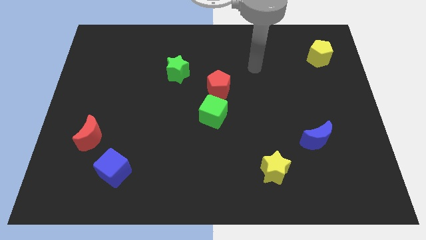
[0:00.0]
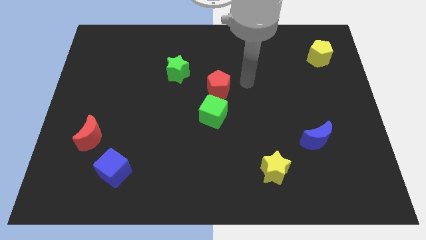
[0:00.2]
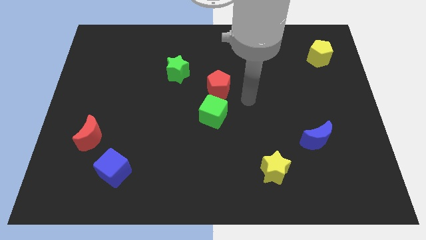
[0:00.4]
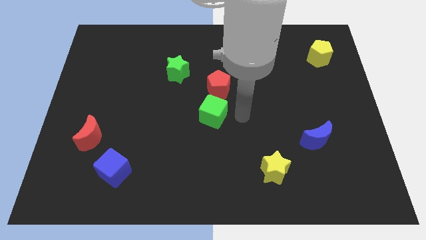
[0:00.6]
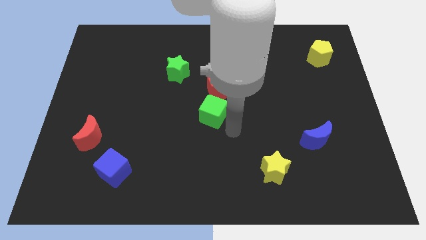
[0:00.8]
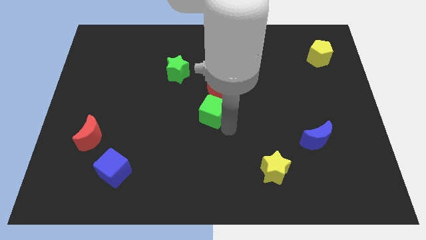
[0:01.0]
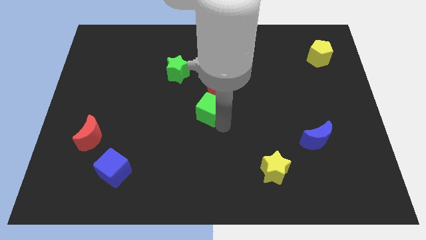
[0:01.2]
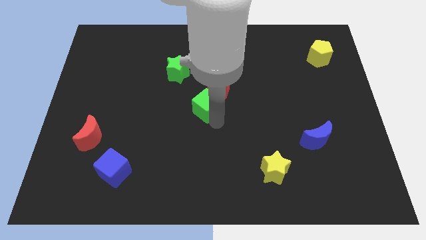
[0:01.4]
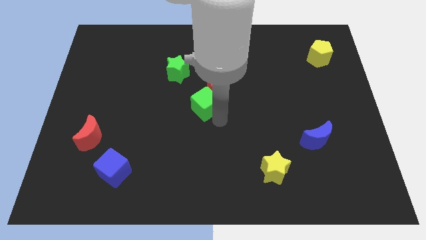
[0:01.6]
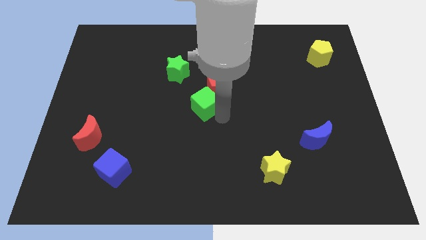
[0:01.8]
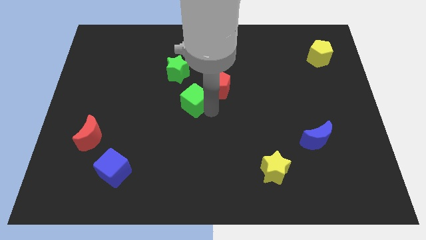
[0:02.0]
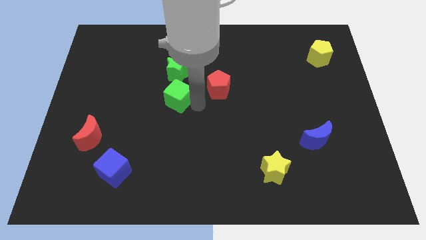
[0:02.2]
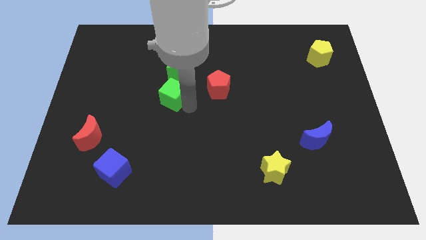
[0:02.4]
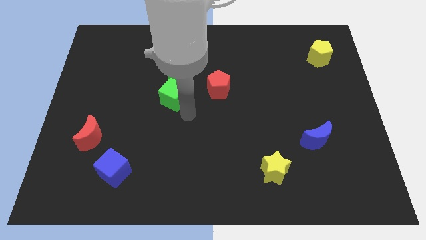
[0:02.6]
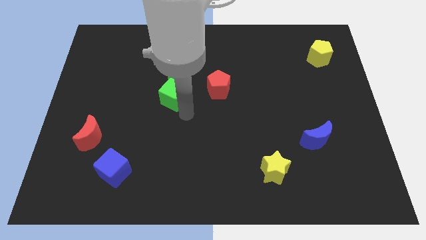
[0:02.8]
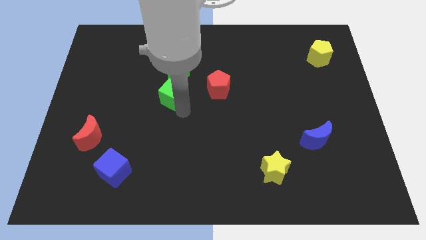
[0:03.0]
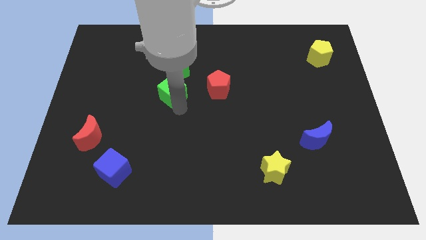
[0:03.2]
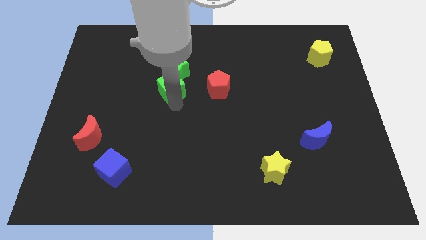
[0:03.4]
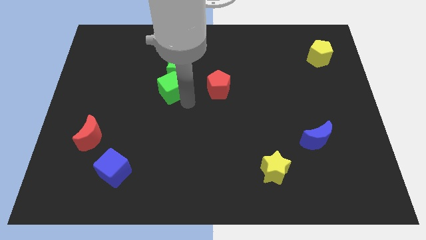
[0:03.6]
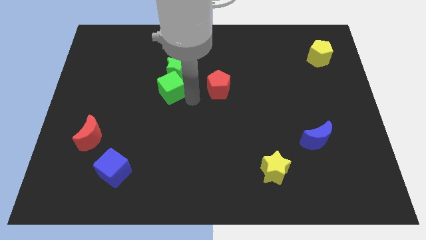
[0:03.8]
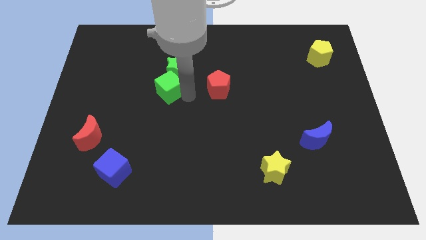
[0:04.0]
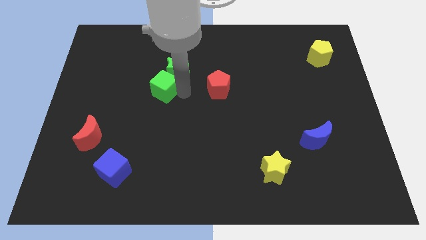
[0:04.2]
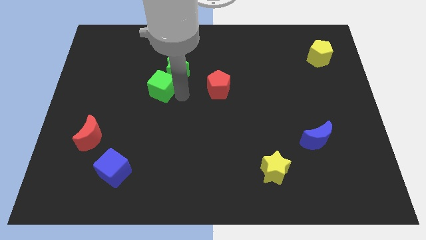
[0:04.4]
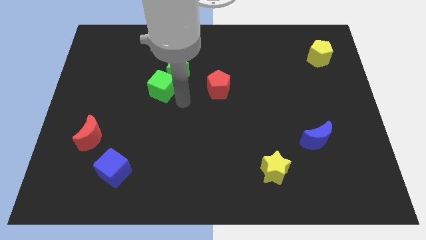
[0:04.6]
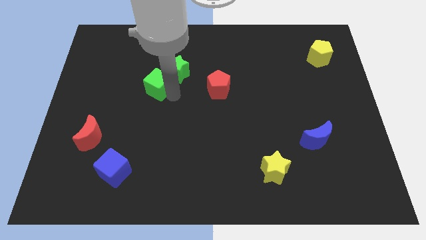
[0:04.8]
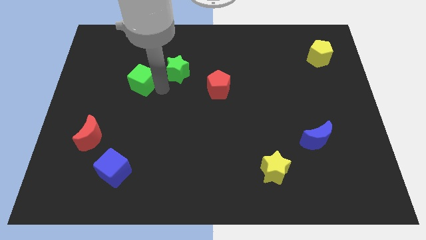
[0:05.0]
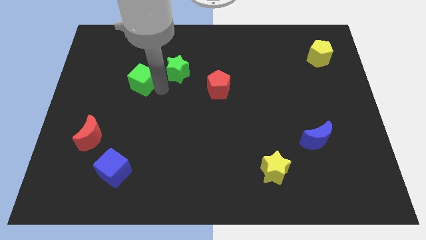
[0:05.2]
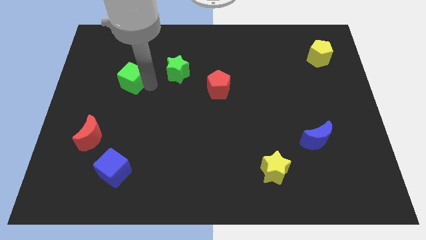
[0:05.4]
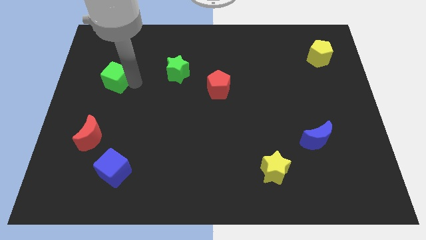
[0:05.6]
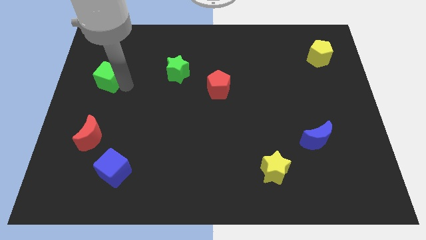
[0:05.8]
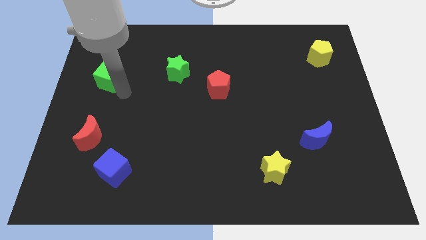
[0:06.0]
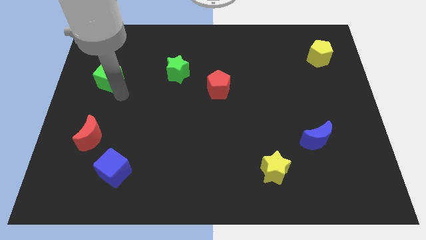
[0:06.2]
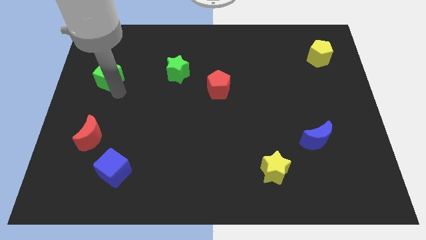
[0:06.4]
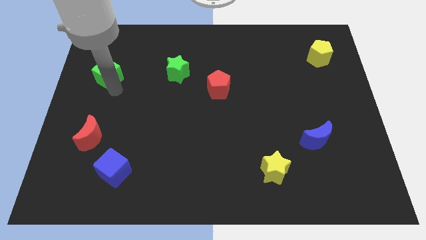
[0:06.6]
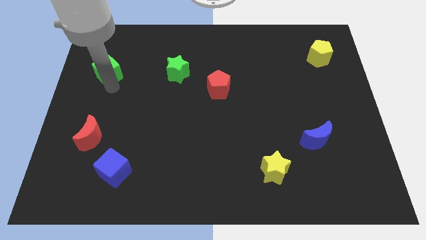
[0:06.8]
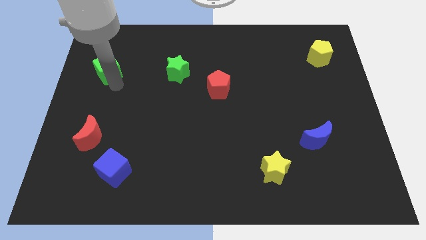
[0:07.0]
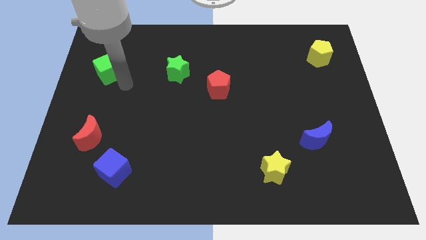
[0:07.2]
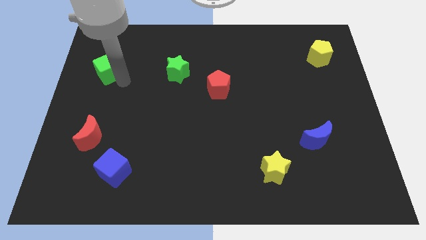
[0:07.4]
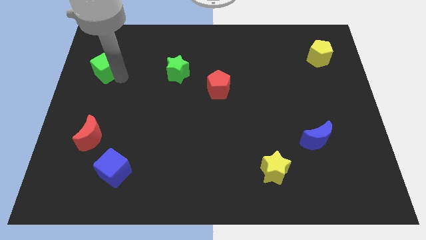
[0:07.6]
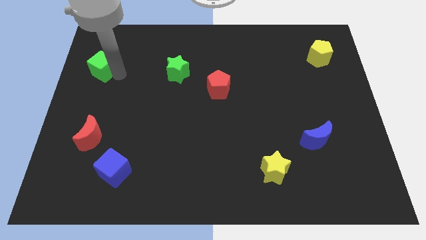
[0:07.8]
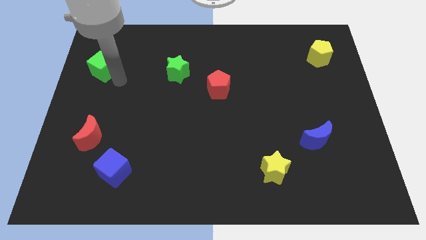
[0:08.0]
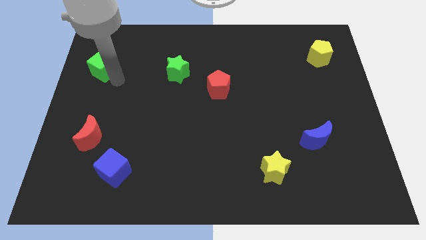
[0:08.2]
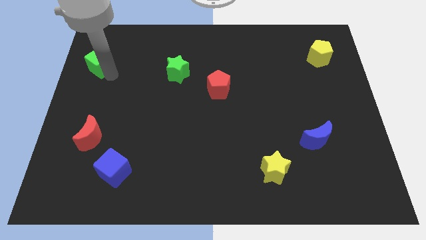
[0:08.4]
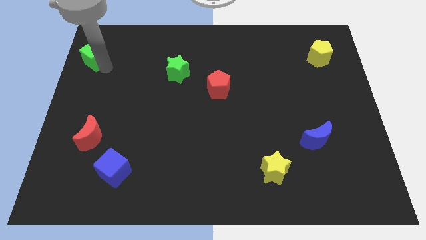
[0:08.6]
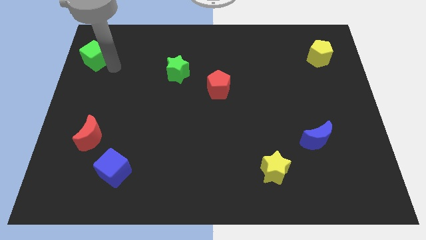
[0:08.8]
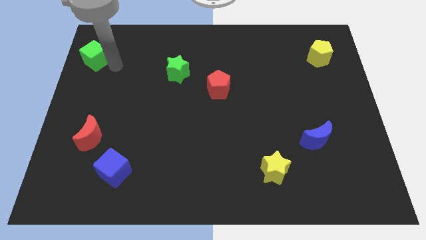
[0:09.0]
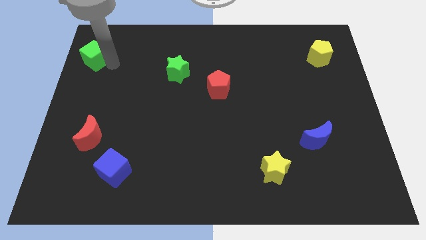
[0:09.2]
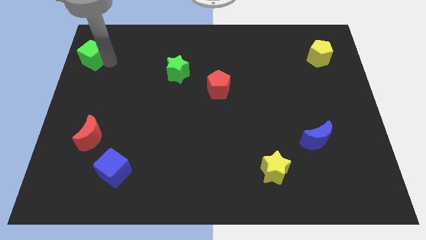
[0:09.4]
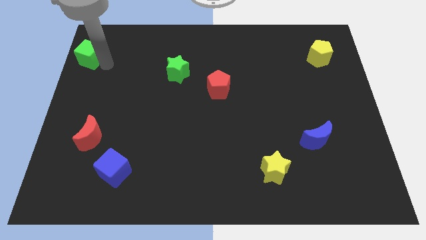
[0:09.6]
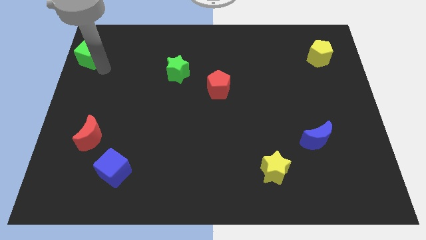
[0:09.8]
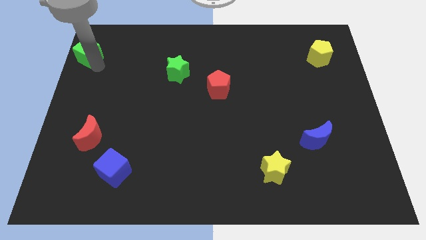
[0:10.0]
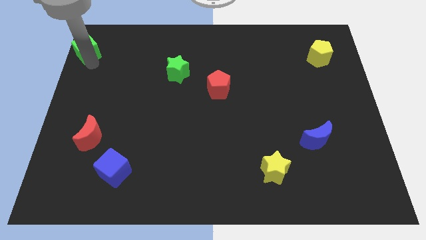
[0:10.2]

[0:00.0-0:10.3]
slide the green cube to the top left

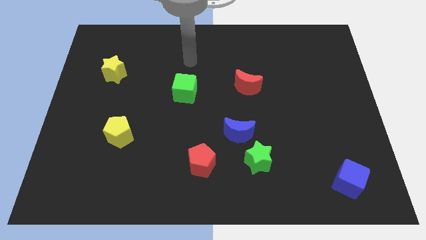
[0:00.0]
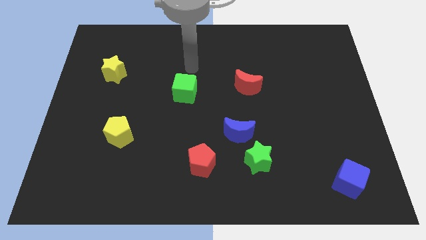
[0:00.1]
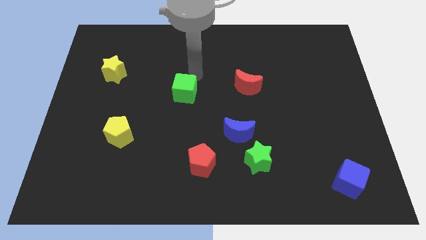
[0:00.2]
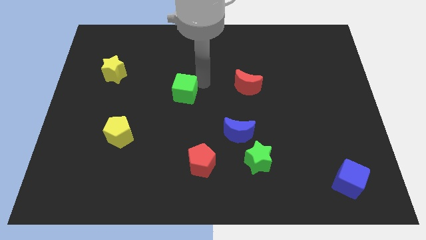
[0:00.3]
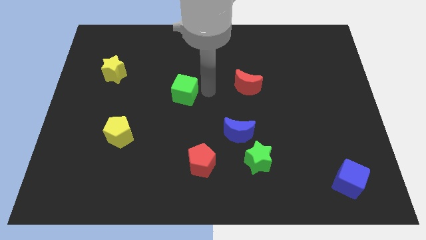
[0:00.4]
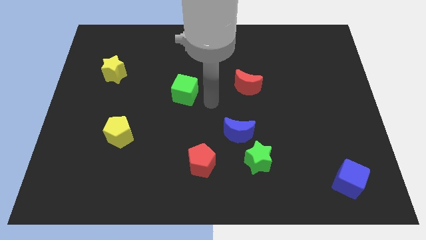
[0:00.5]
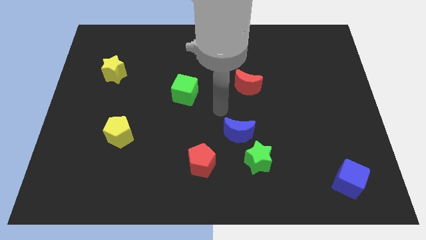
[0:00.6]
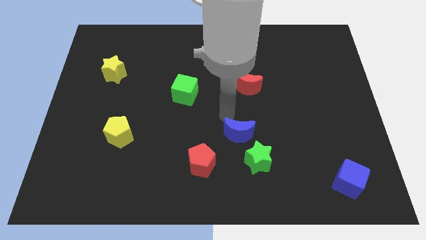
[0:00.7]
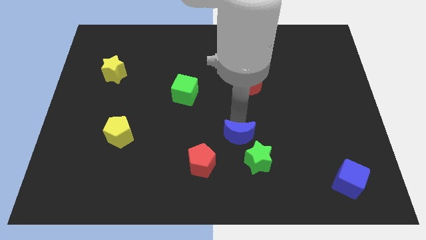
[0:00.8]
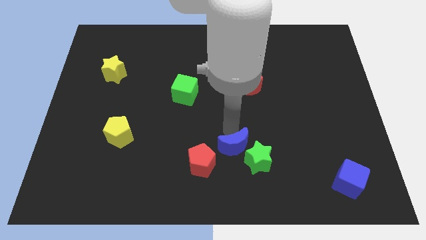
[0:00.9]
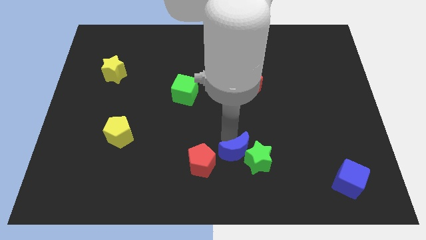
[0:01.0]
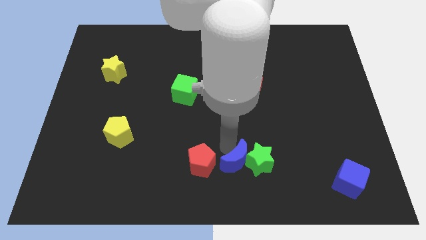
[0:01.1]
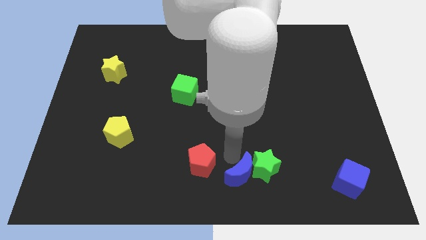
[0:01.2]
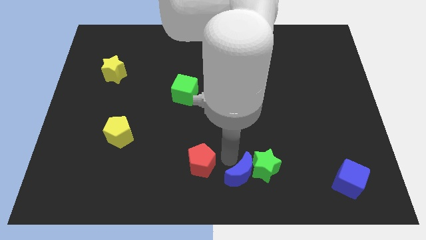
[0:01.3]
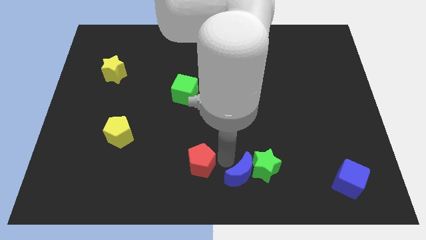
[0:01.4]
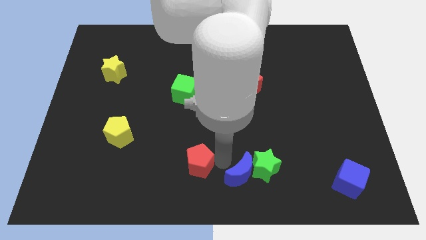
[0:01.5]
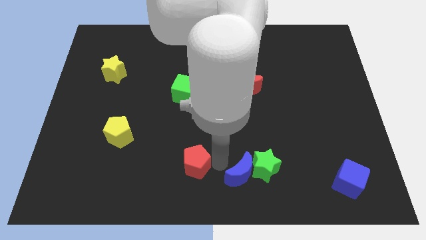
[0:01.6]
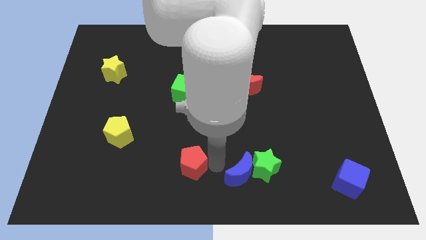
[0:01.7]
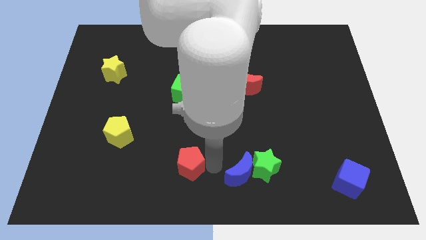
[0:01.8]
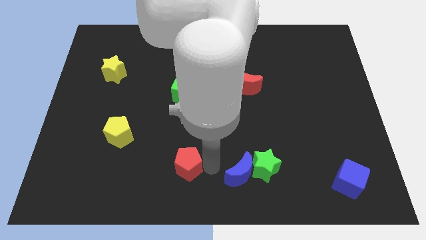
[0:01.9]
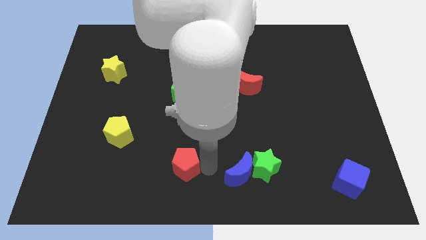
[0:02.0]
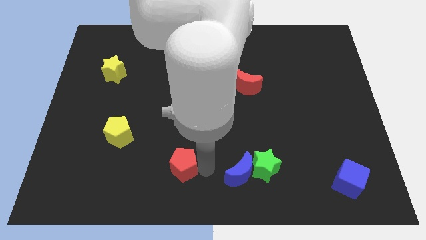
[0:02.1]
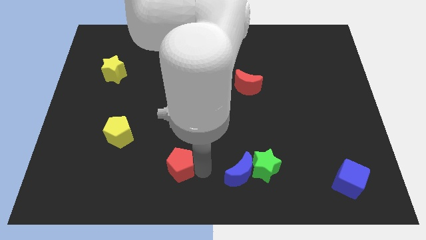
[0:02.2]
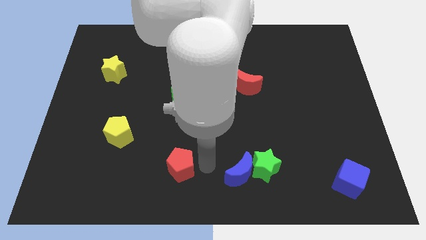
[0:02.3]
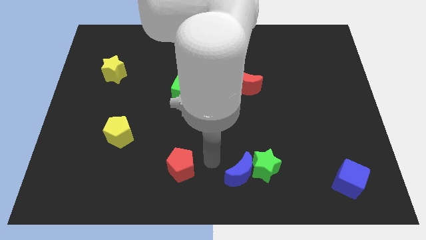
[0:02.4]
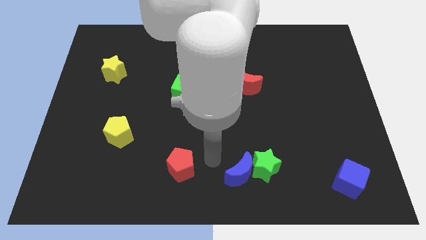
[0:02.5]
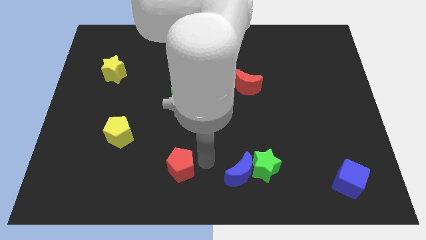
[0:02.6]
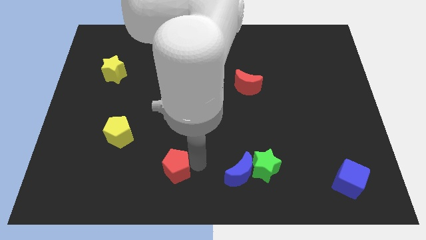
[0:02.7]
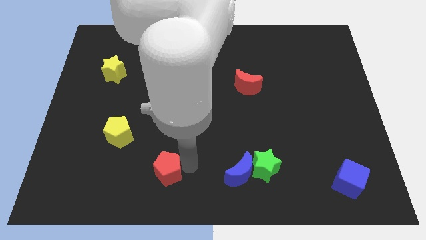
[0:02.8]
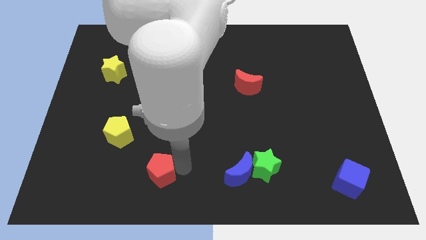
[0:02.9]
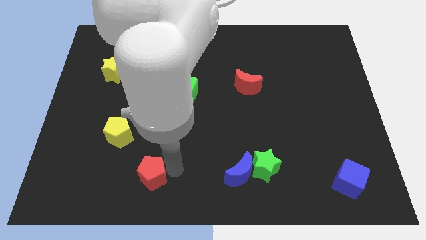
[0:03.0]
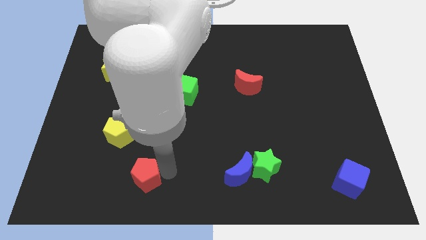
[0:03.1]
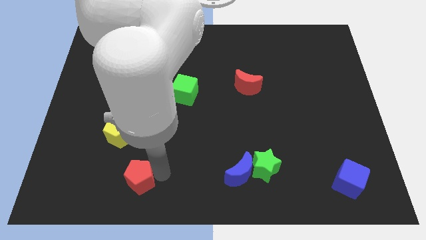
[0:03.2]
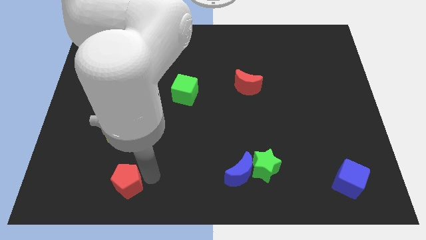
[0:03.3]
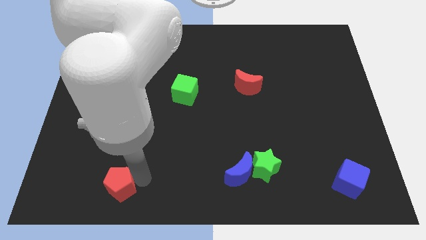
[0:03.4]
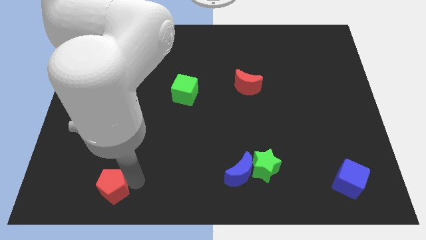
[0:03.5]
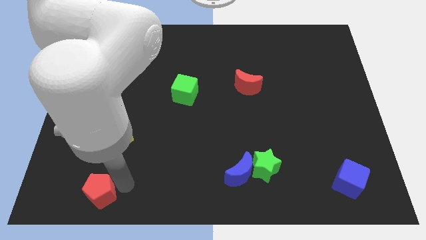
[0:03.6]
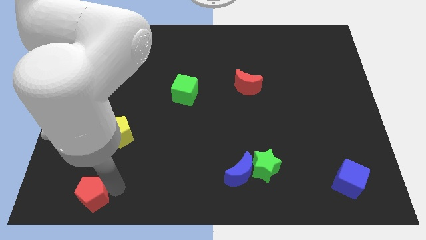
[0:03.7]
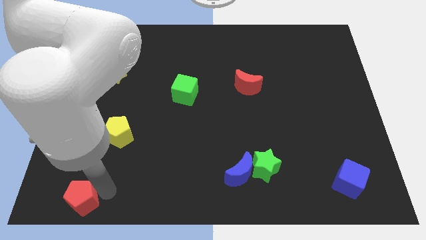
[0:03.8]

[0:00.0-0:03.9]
slide the red pentagon to the lower left corner
